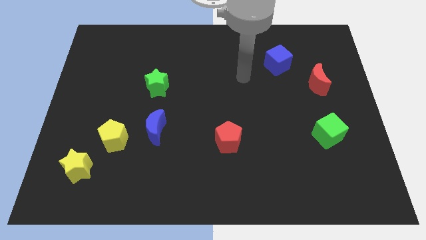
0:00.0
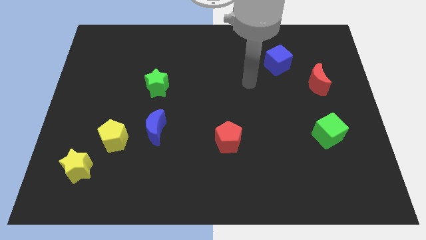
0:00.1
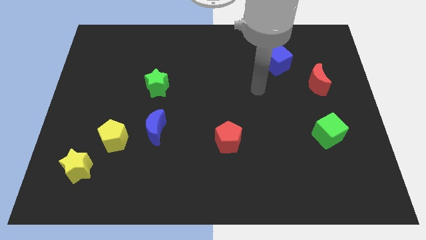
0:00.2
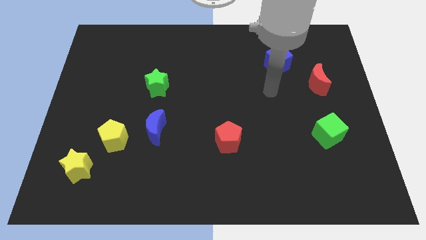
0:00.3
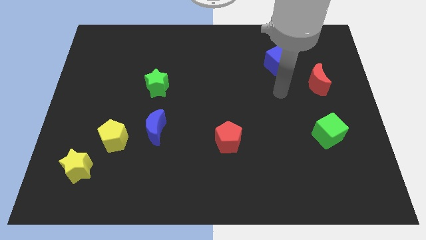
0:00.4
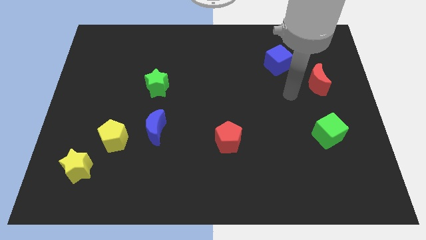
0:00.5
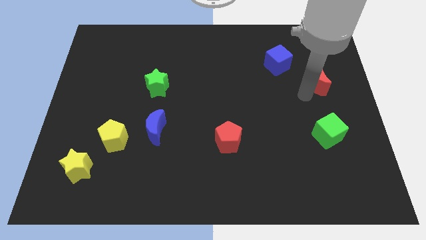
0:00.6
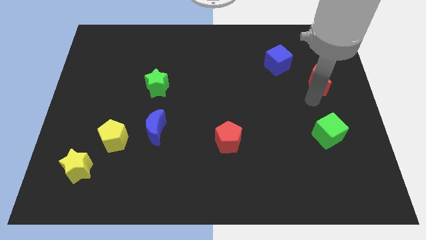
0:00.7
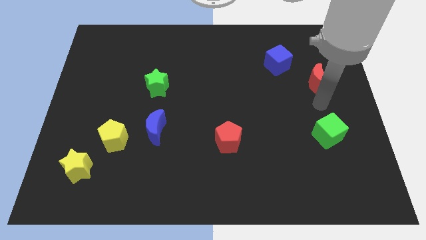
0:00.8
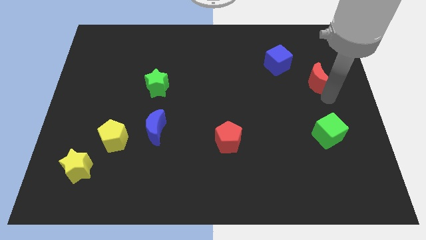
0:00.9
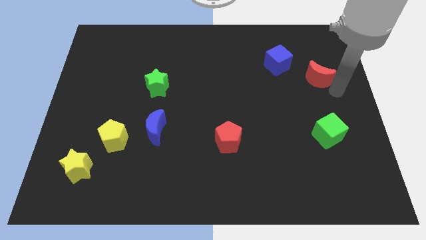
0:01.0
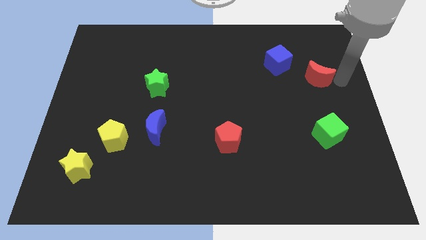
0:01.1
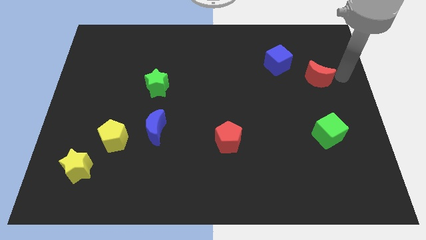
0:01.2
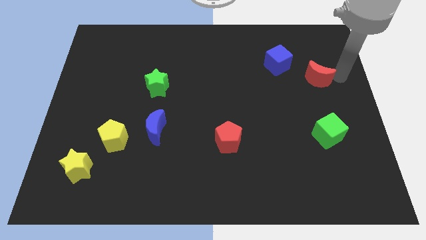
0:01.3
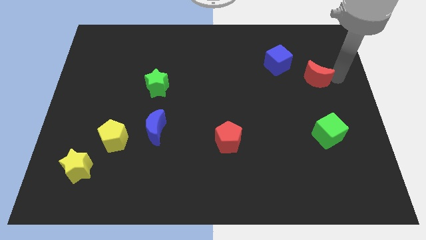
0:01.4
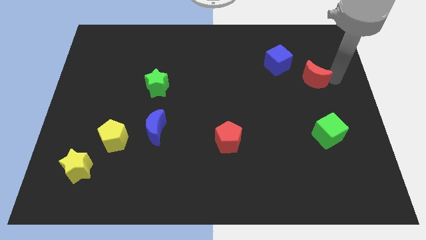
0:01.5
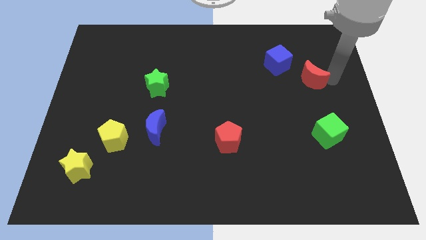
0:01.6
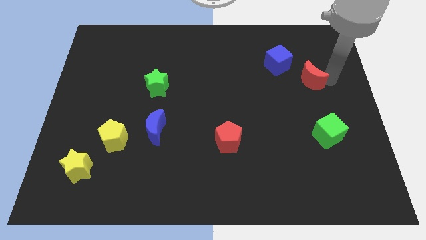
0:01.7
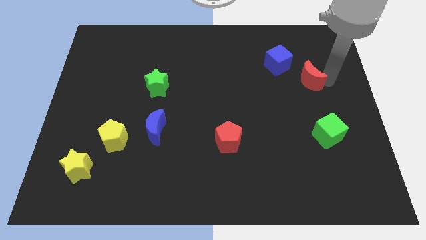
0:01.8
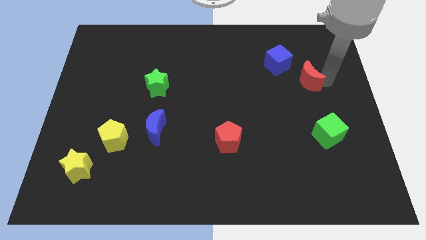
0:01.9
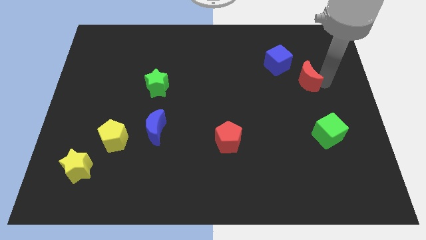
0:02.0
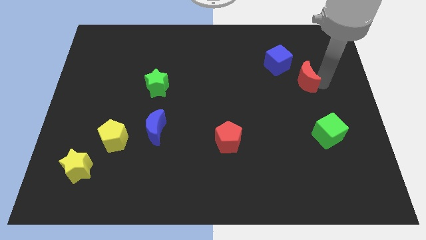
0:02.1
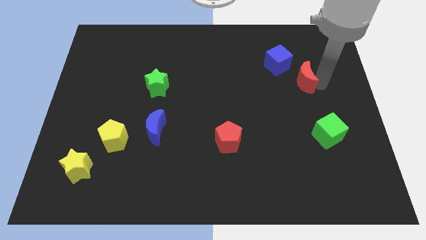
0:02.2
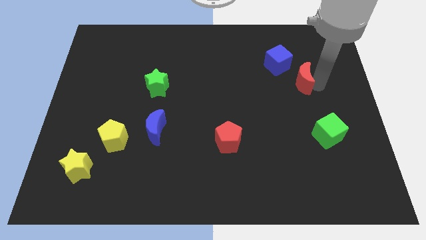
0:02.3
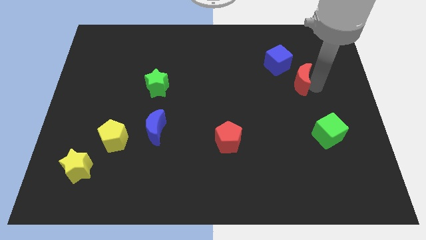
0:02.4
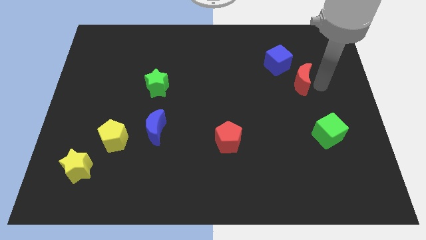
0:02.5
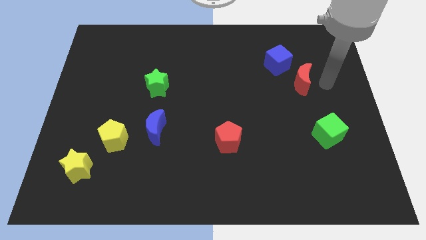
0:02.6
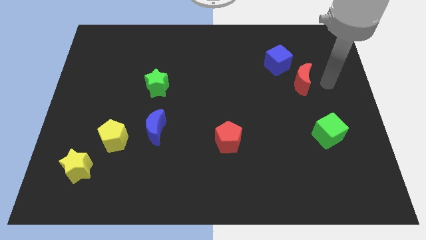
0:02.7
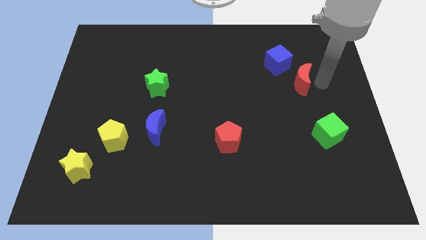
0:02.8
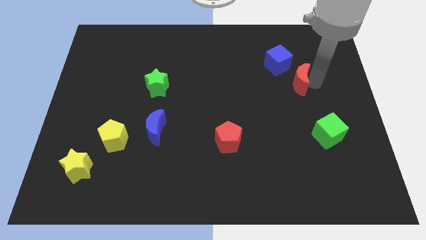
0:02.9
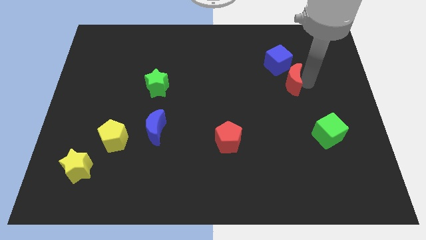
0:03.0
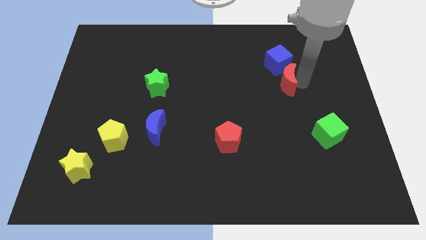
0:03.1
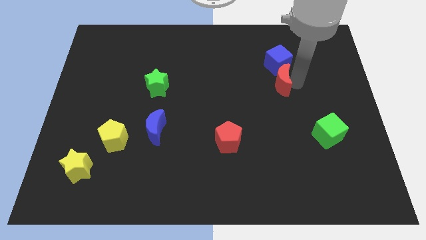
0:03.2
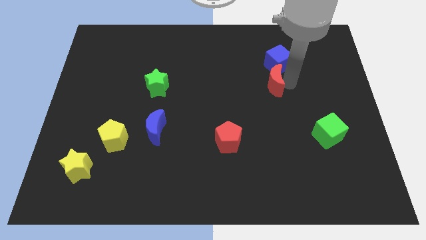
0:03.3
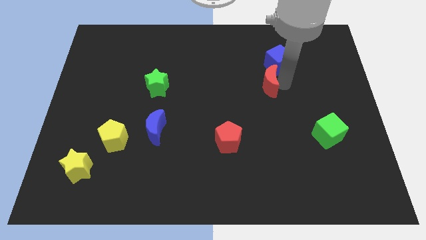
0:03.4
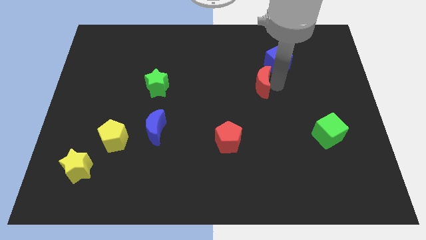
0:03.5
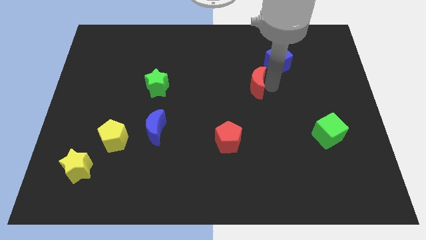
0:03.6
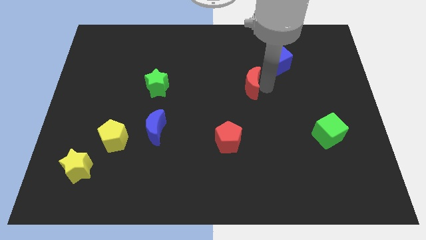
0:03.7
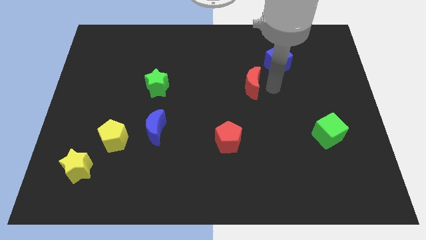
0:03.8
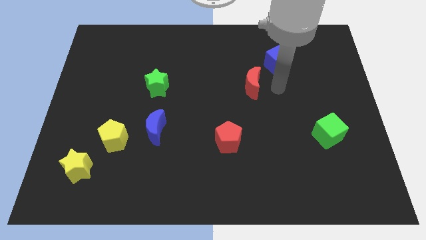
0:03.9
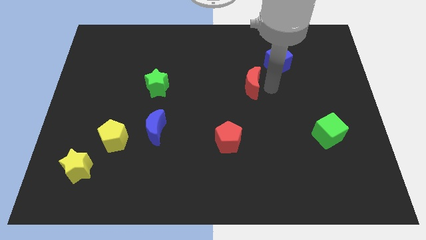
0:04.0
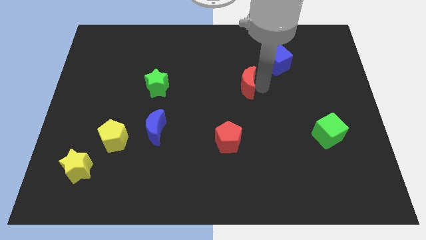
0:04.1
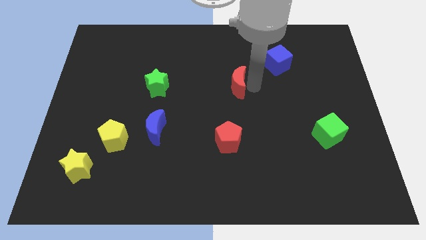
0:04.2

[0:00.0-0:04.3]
push the red moon left

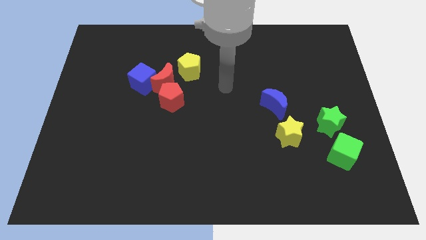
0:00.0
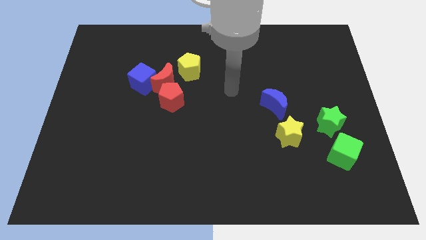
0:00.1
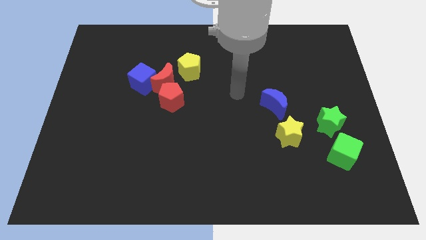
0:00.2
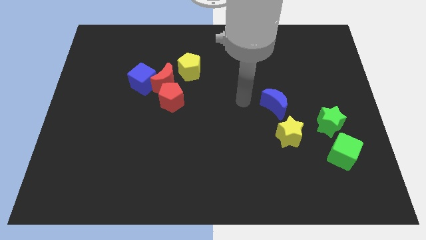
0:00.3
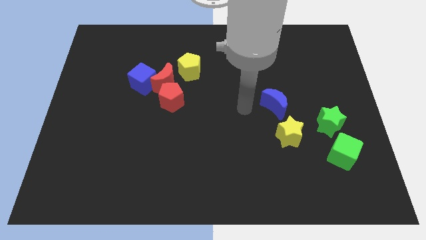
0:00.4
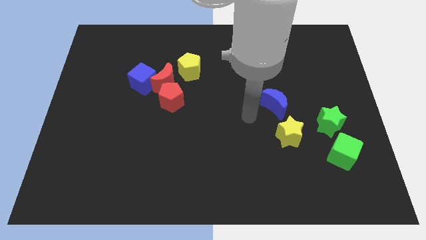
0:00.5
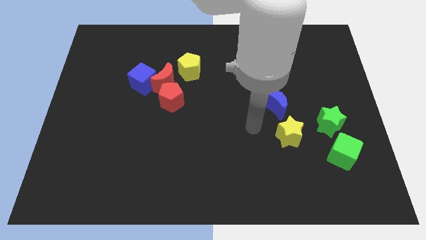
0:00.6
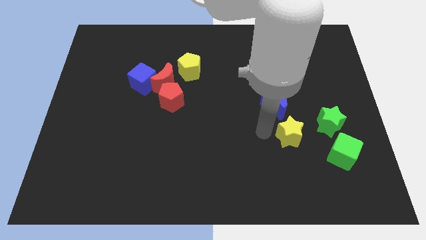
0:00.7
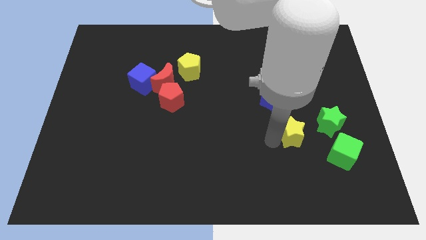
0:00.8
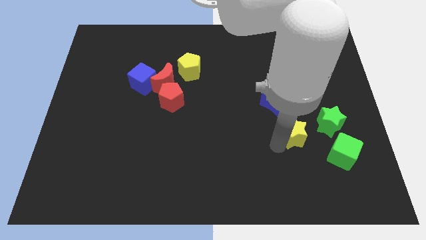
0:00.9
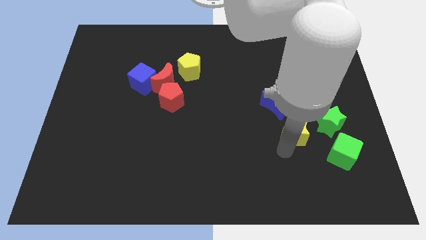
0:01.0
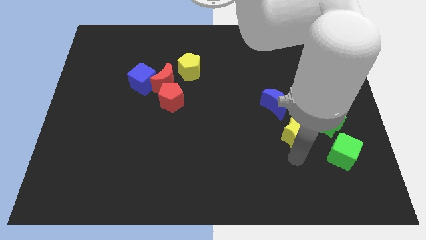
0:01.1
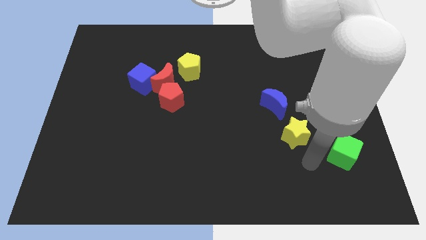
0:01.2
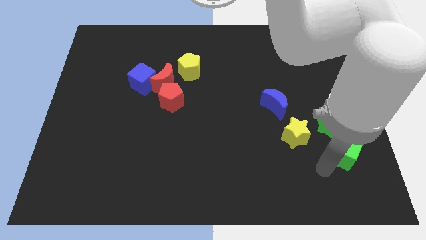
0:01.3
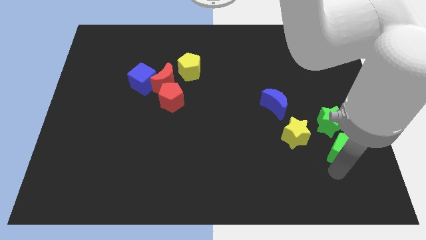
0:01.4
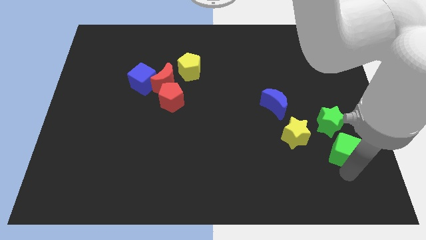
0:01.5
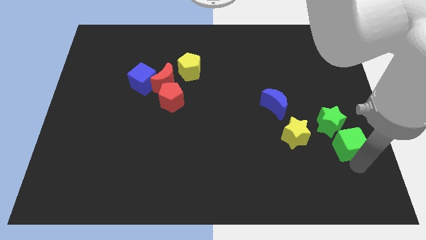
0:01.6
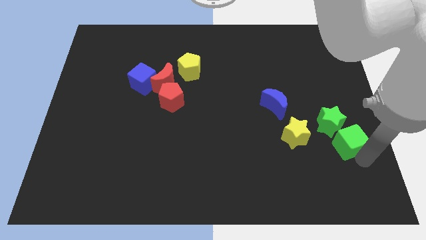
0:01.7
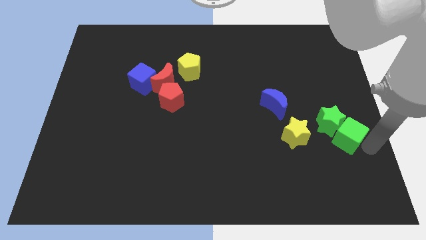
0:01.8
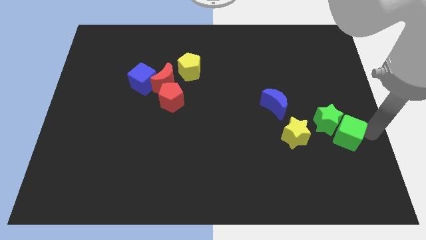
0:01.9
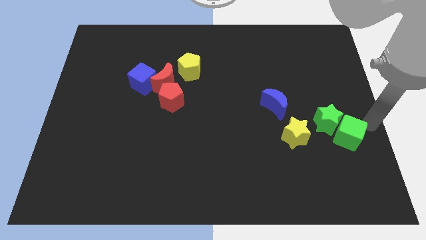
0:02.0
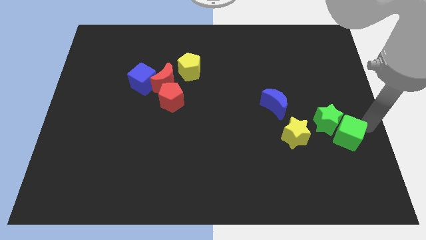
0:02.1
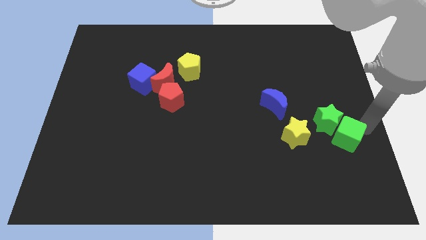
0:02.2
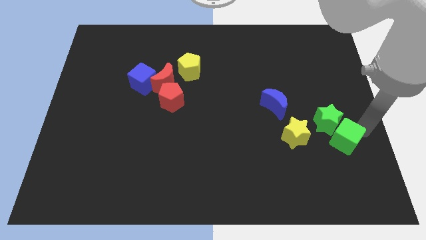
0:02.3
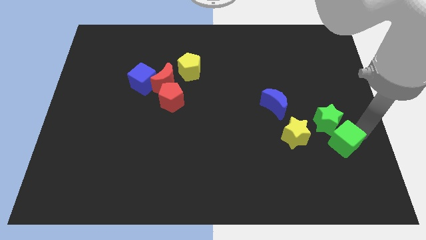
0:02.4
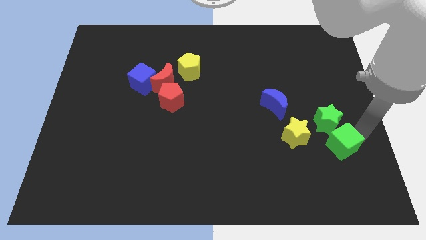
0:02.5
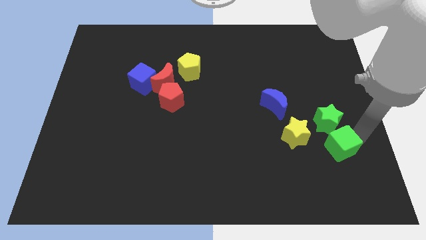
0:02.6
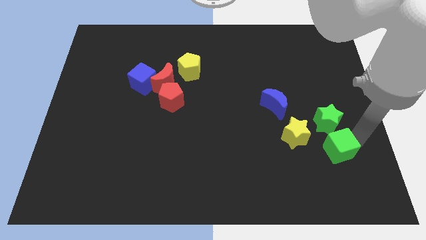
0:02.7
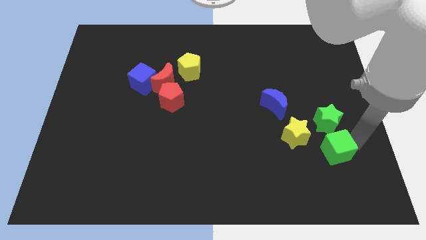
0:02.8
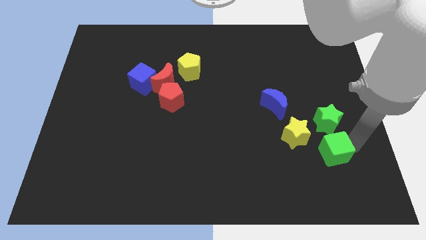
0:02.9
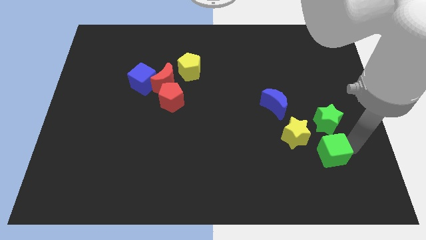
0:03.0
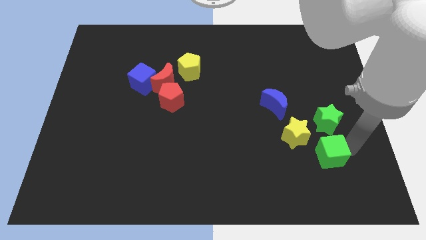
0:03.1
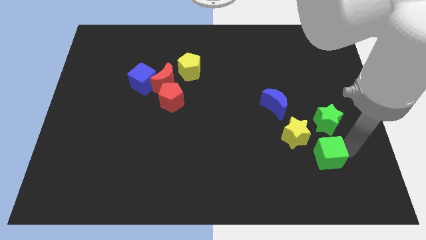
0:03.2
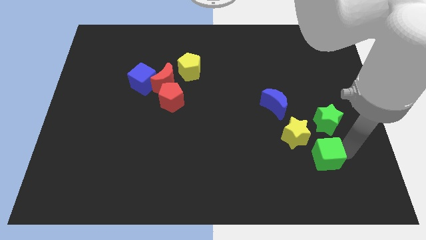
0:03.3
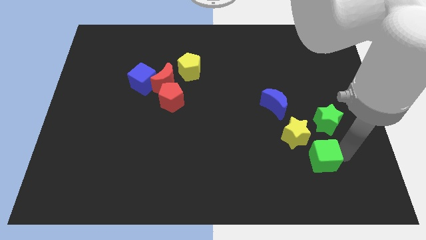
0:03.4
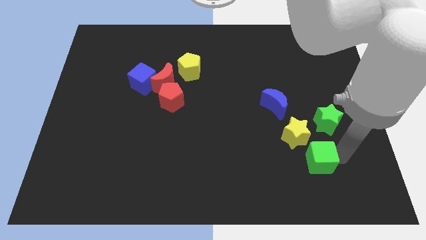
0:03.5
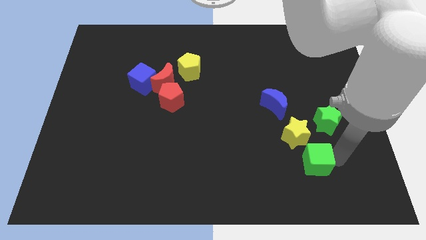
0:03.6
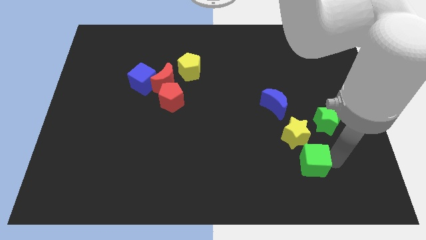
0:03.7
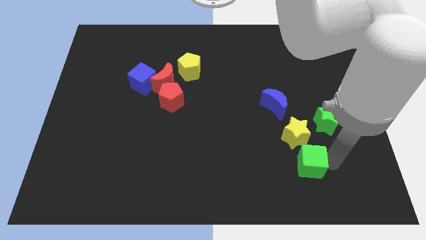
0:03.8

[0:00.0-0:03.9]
push the green cube somewhat left
